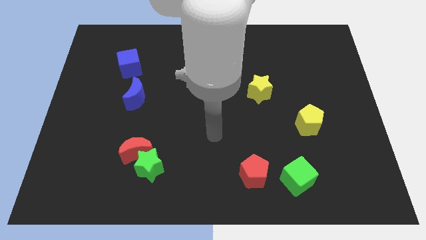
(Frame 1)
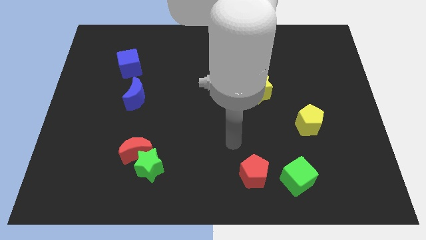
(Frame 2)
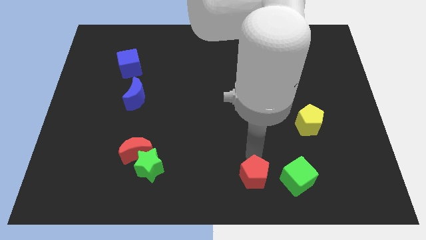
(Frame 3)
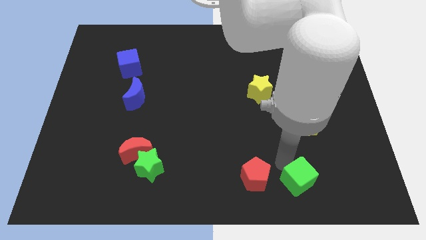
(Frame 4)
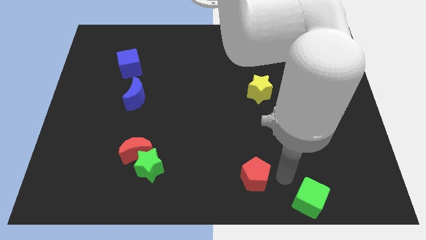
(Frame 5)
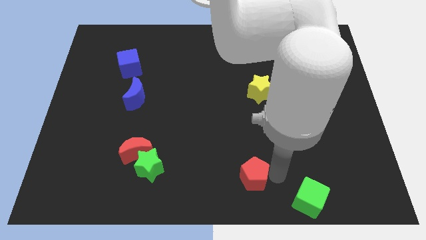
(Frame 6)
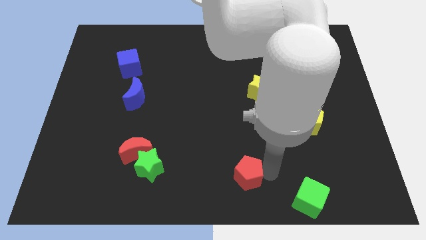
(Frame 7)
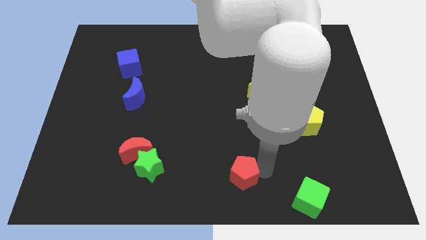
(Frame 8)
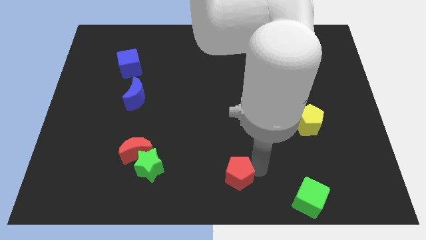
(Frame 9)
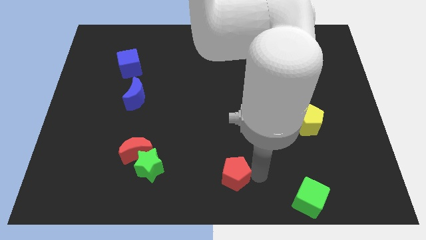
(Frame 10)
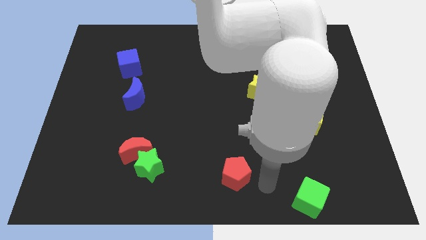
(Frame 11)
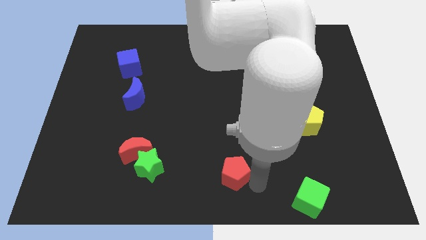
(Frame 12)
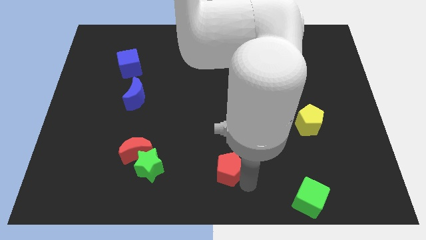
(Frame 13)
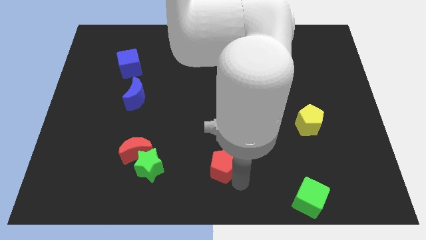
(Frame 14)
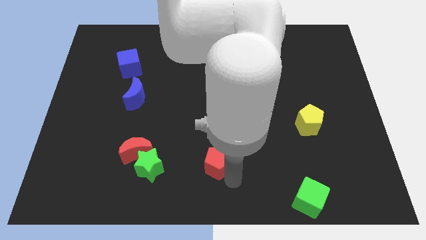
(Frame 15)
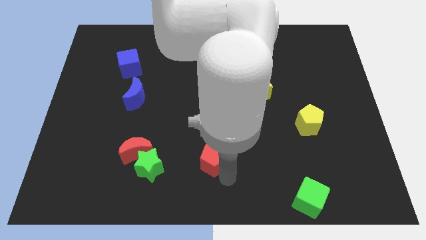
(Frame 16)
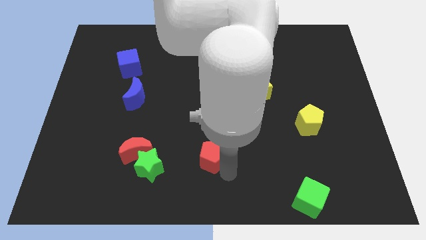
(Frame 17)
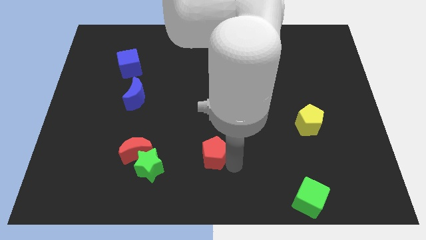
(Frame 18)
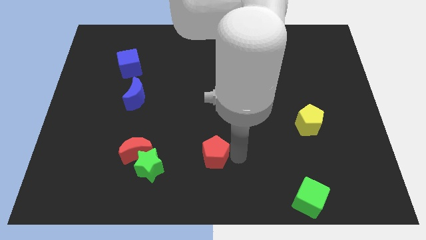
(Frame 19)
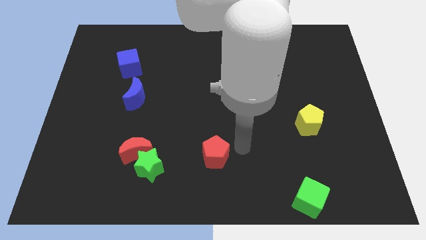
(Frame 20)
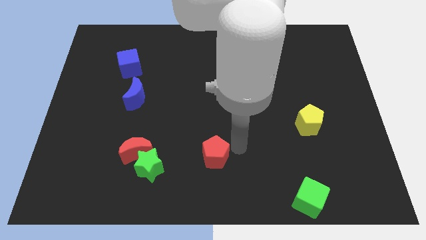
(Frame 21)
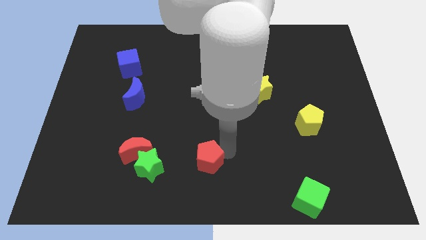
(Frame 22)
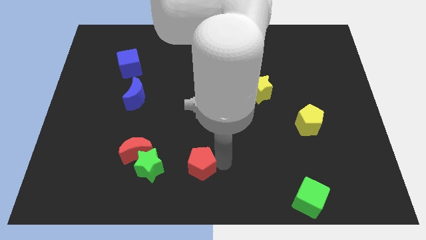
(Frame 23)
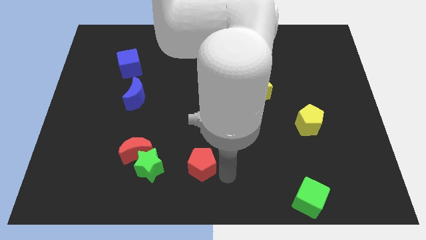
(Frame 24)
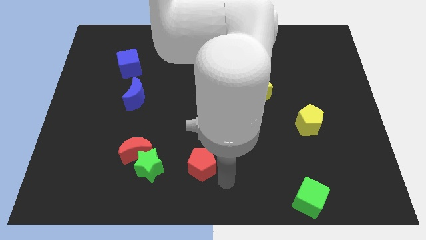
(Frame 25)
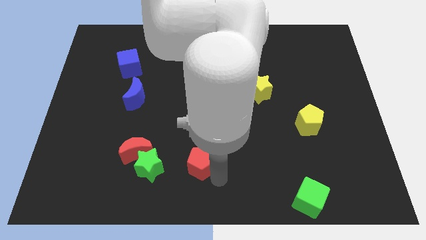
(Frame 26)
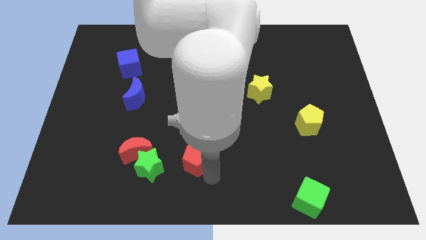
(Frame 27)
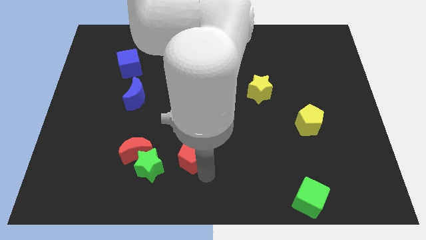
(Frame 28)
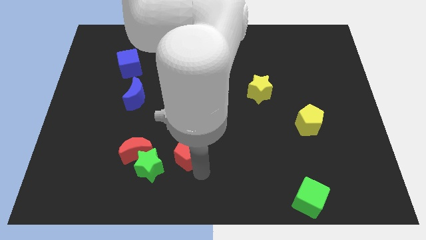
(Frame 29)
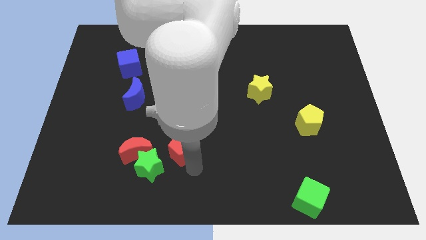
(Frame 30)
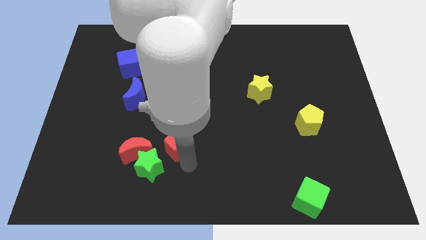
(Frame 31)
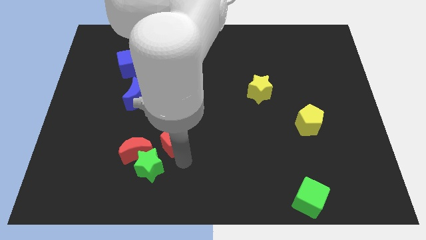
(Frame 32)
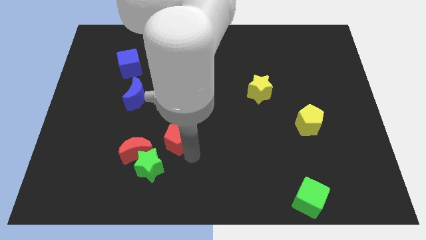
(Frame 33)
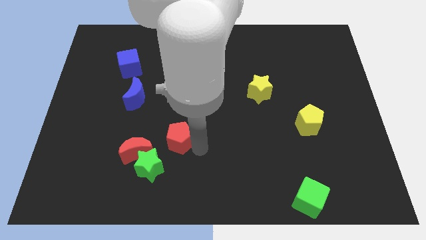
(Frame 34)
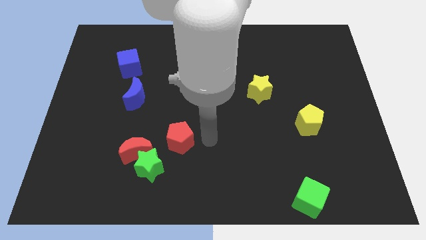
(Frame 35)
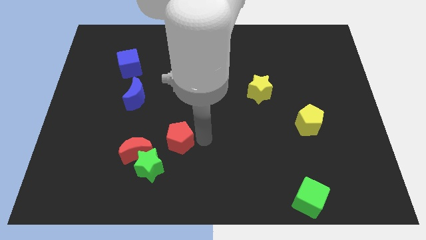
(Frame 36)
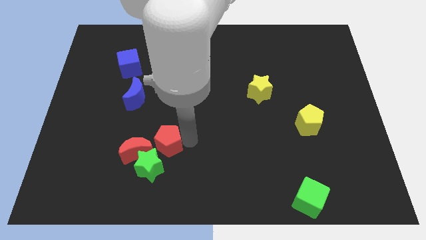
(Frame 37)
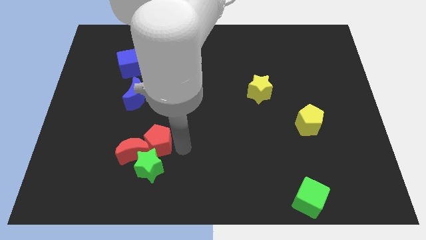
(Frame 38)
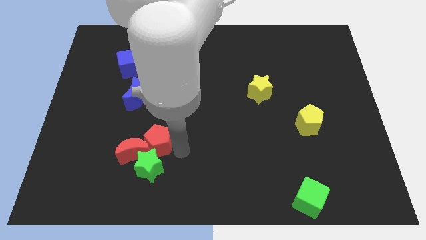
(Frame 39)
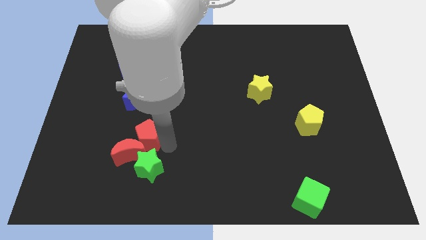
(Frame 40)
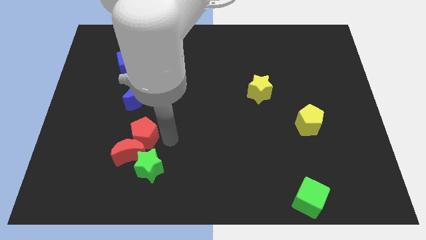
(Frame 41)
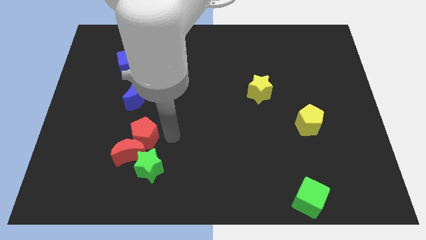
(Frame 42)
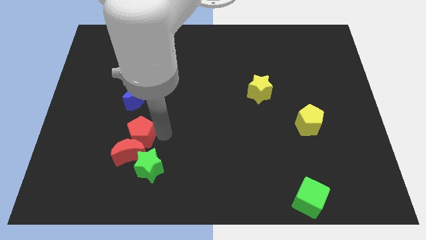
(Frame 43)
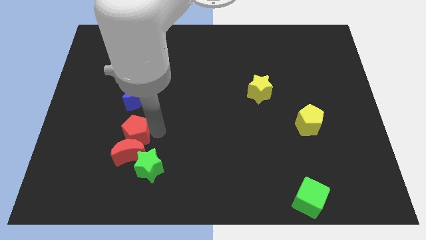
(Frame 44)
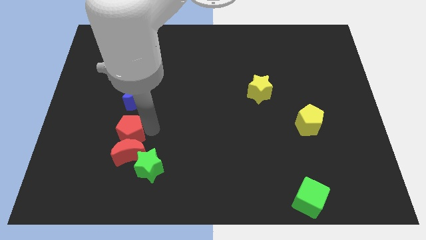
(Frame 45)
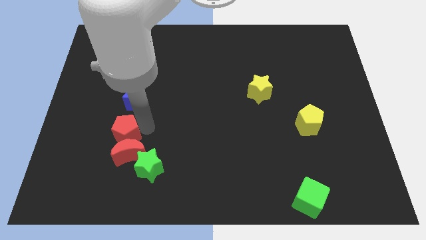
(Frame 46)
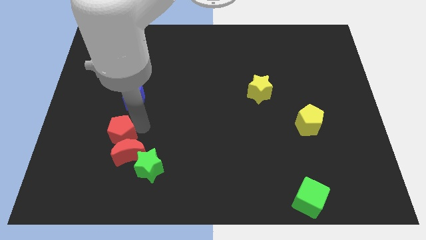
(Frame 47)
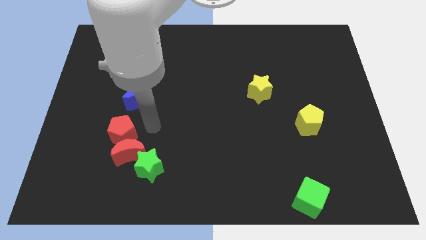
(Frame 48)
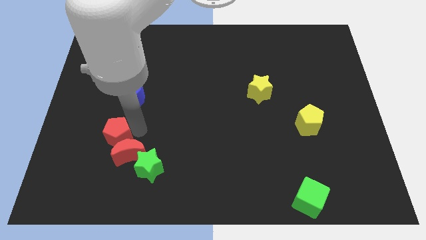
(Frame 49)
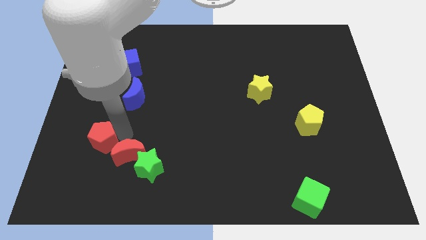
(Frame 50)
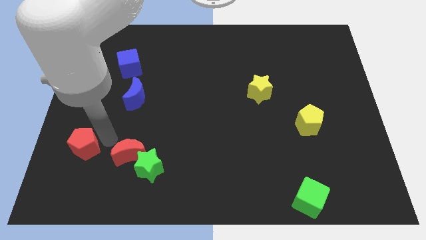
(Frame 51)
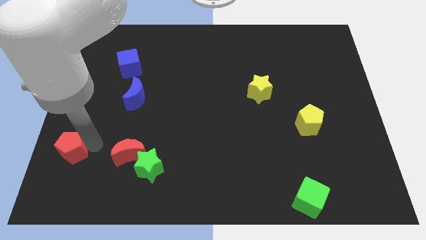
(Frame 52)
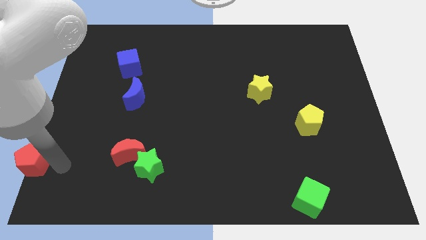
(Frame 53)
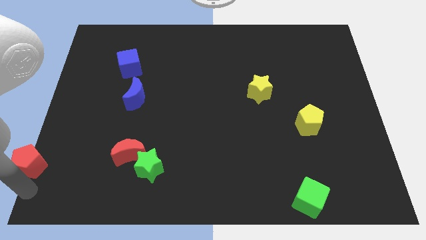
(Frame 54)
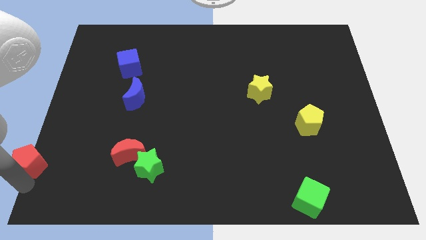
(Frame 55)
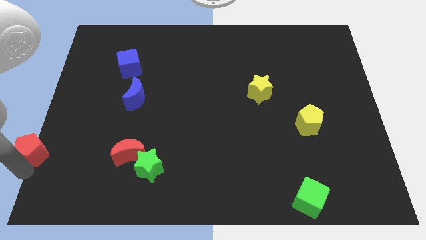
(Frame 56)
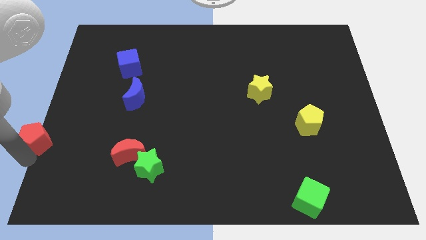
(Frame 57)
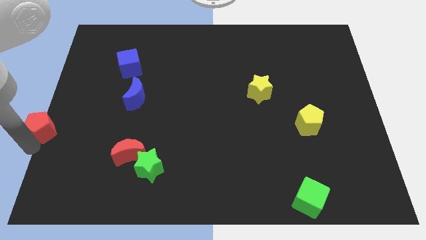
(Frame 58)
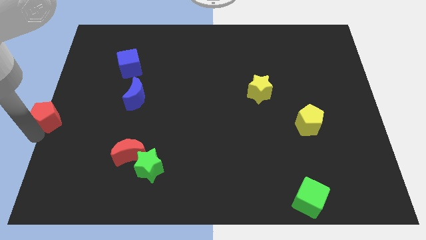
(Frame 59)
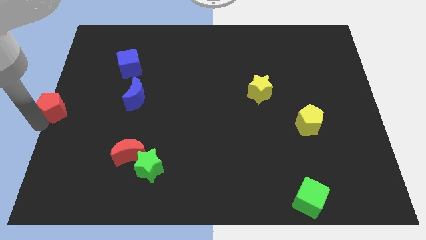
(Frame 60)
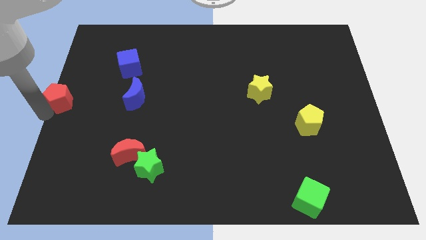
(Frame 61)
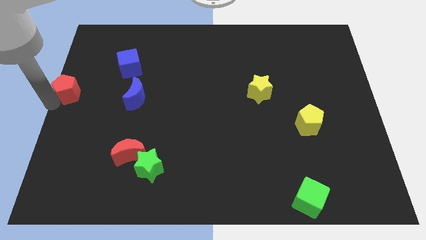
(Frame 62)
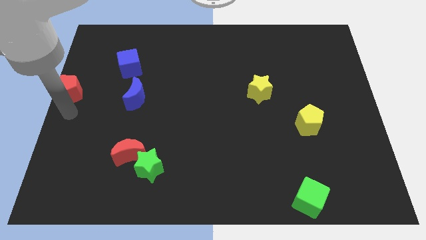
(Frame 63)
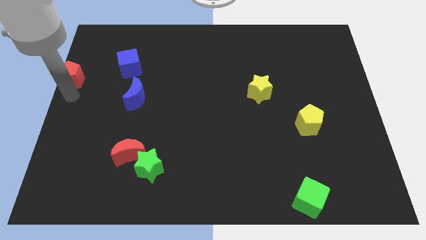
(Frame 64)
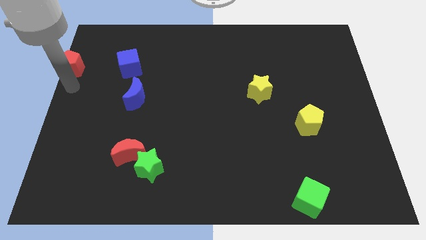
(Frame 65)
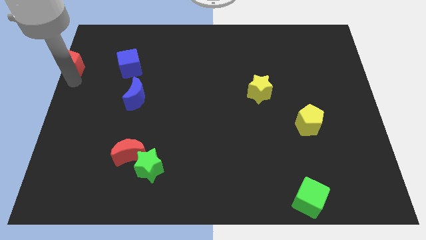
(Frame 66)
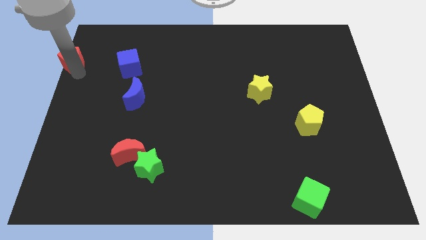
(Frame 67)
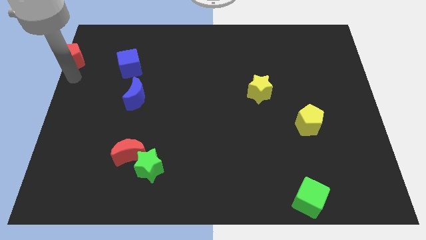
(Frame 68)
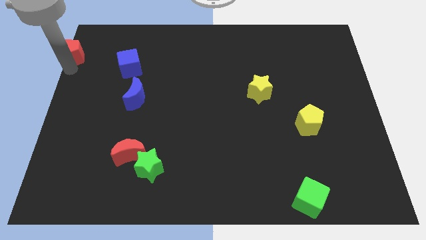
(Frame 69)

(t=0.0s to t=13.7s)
push the red pentagon to the upper left corner
